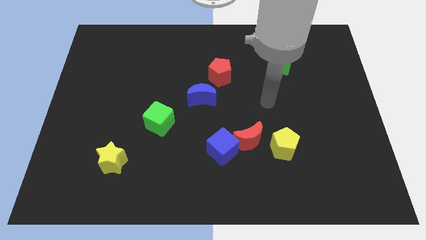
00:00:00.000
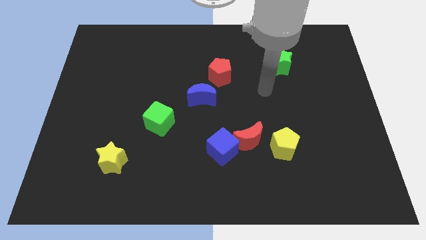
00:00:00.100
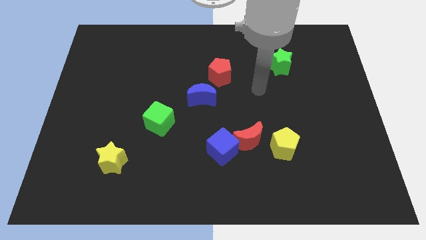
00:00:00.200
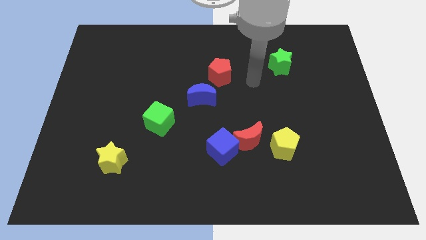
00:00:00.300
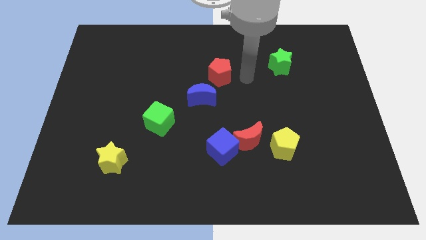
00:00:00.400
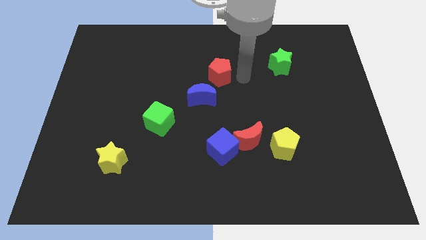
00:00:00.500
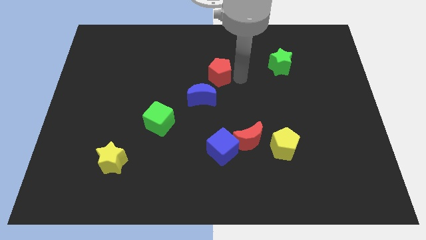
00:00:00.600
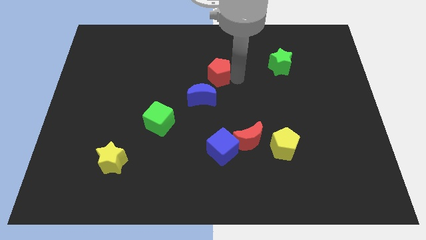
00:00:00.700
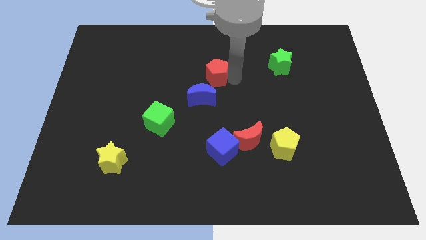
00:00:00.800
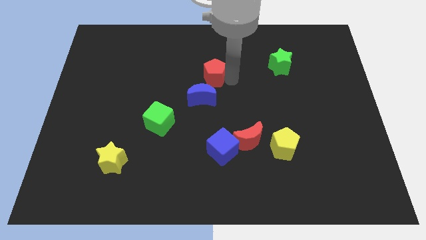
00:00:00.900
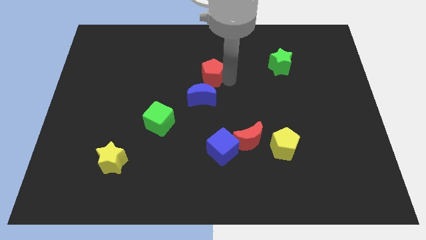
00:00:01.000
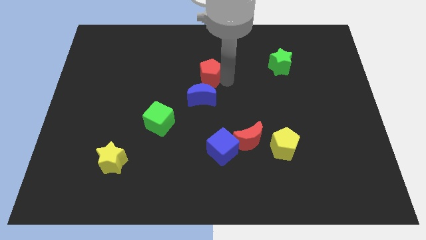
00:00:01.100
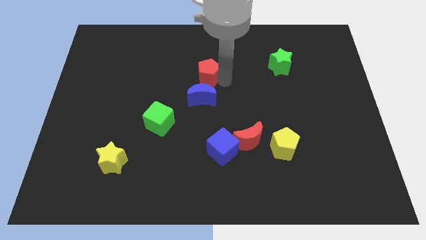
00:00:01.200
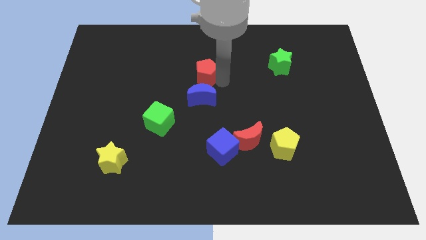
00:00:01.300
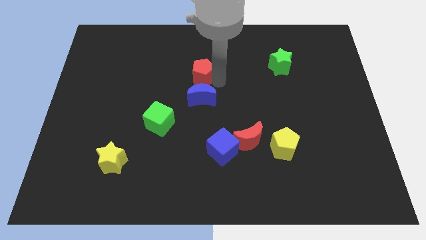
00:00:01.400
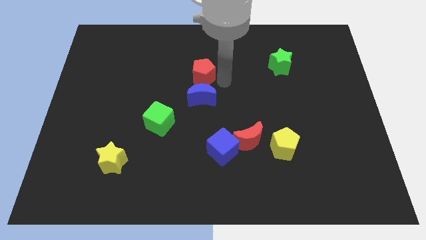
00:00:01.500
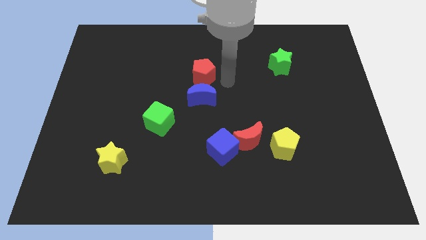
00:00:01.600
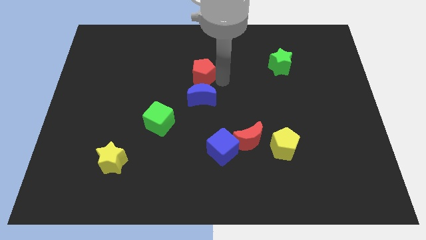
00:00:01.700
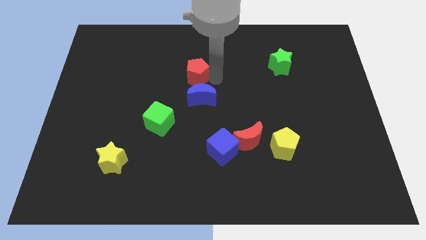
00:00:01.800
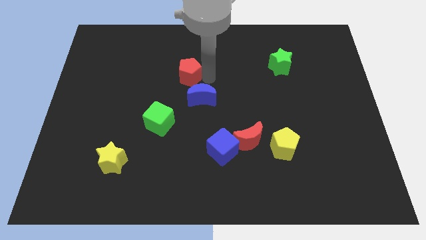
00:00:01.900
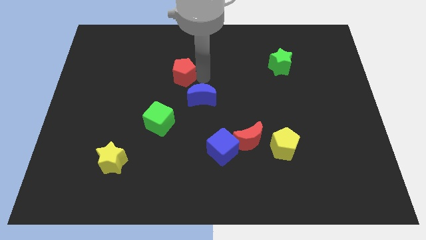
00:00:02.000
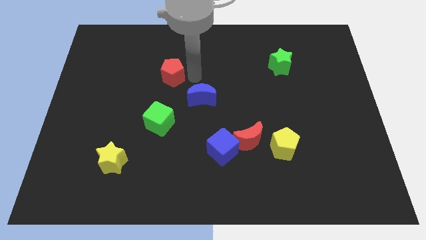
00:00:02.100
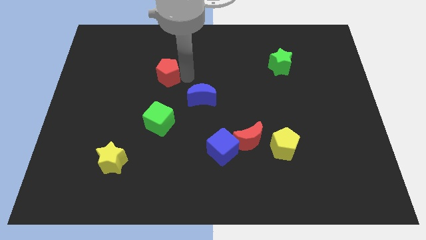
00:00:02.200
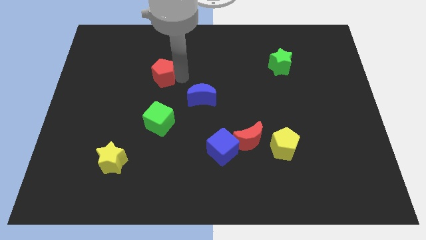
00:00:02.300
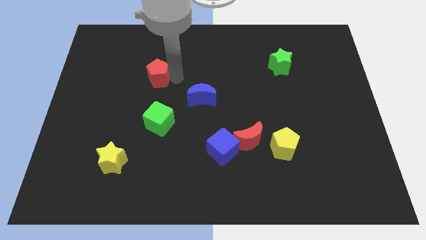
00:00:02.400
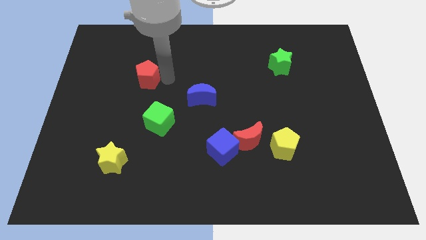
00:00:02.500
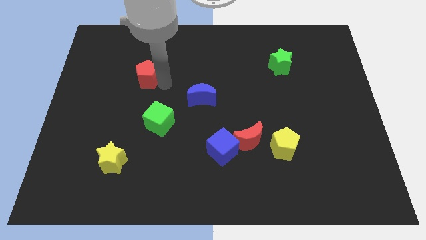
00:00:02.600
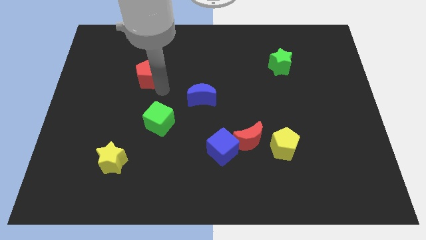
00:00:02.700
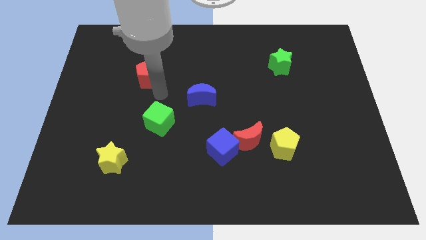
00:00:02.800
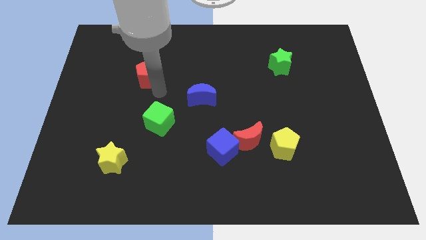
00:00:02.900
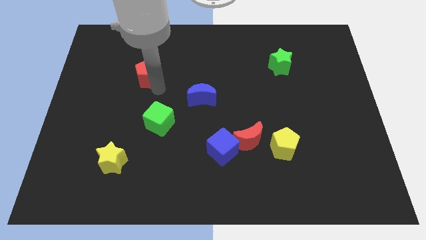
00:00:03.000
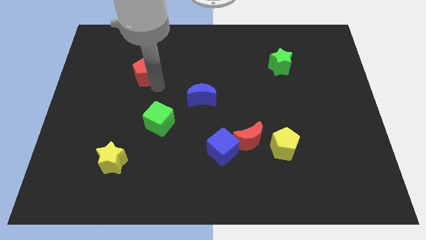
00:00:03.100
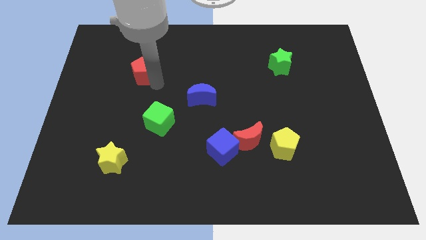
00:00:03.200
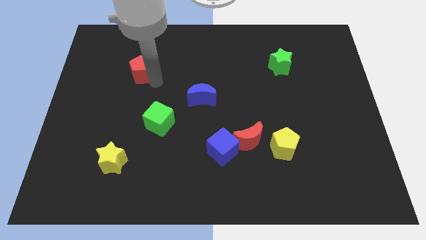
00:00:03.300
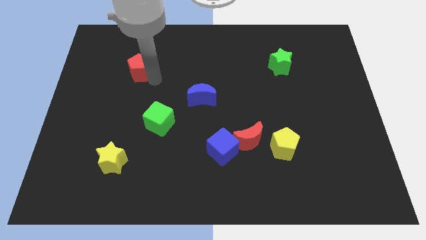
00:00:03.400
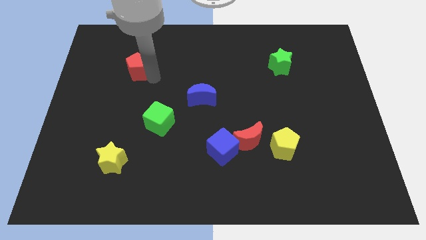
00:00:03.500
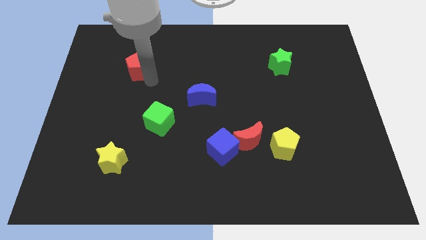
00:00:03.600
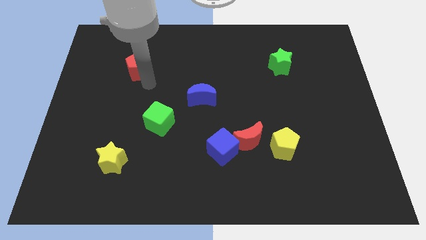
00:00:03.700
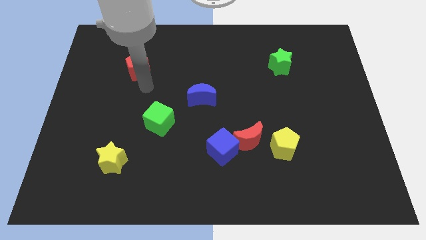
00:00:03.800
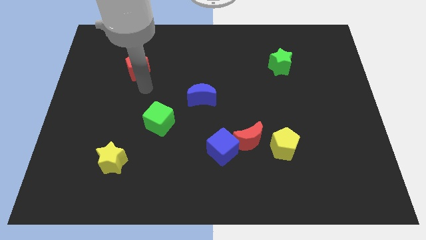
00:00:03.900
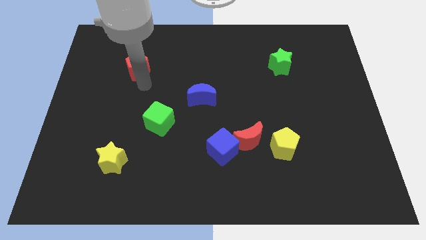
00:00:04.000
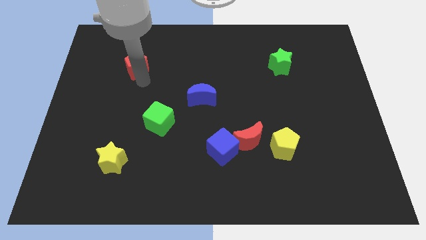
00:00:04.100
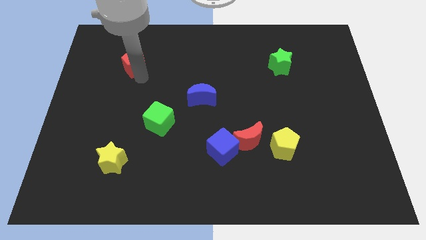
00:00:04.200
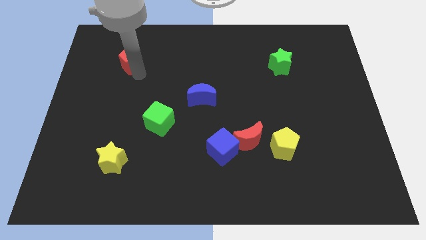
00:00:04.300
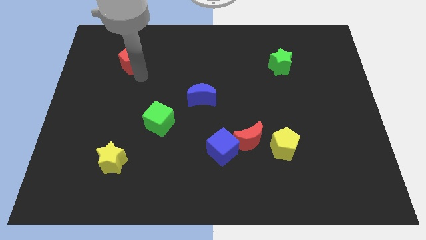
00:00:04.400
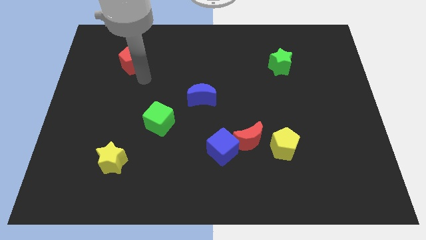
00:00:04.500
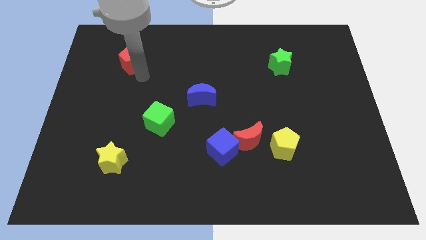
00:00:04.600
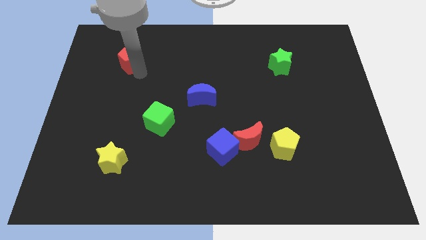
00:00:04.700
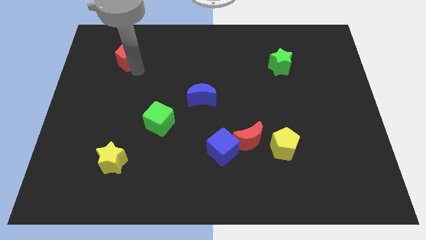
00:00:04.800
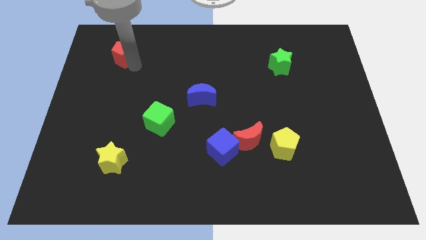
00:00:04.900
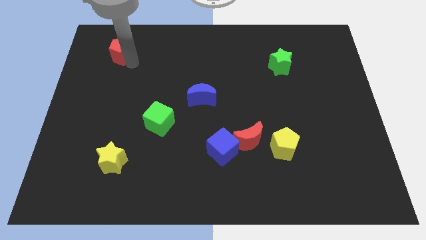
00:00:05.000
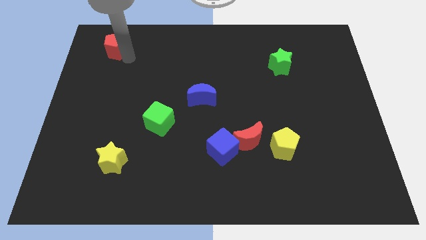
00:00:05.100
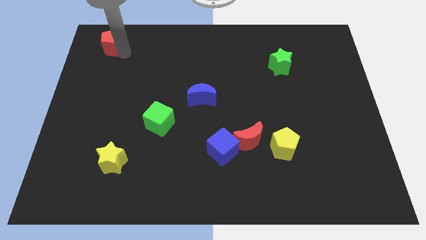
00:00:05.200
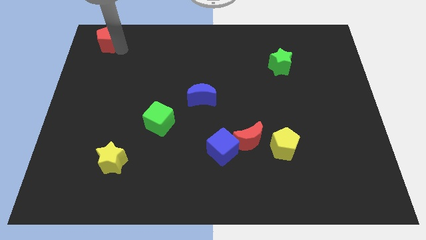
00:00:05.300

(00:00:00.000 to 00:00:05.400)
move the red pentagon to the top left corner

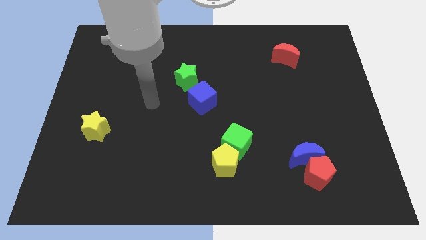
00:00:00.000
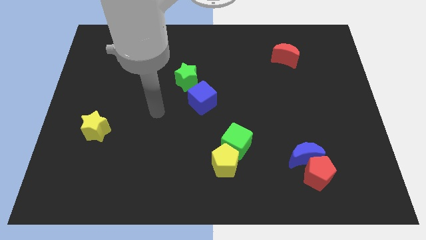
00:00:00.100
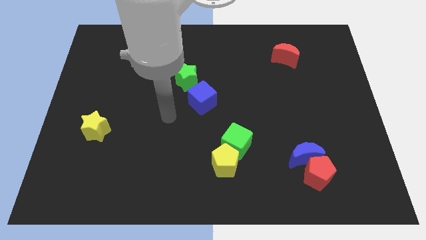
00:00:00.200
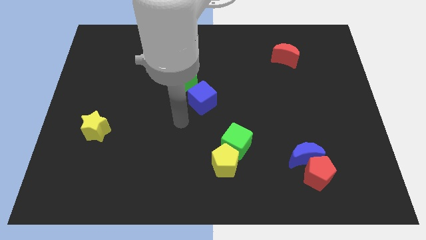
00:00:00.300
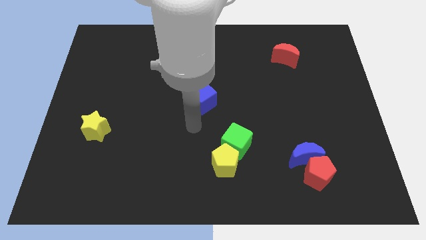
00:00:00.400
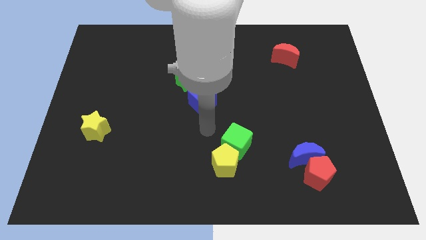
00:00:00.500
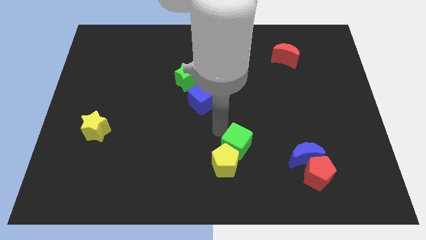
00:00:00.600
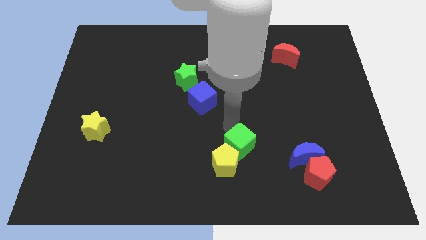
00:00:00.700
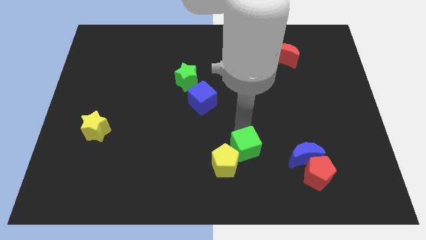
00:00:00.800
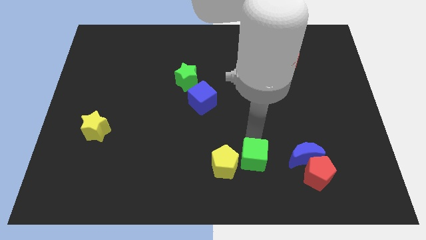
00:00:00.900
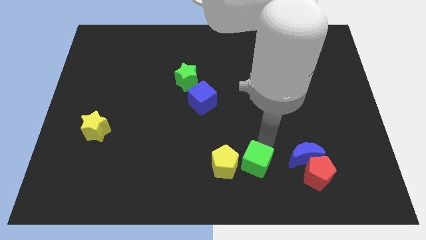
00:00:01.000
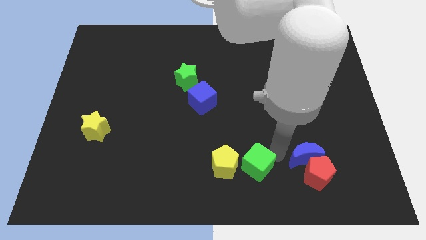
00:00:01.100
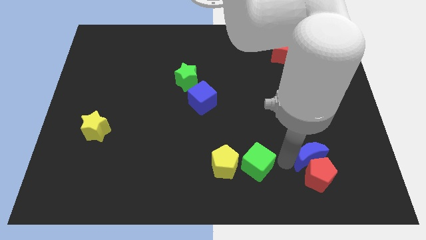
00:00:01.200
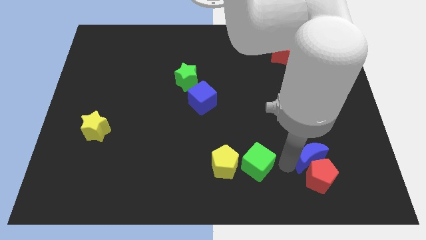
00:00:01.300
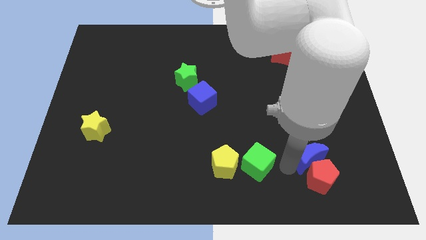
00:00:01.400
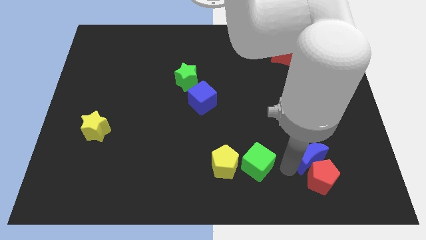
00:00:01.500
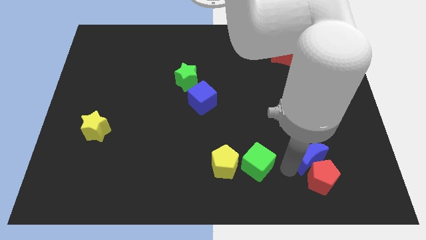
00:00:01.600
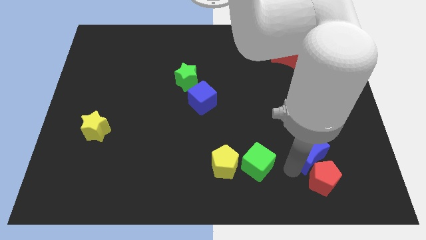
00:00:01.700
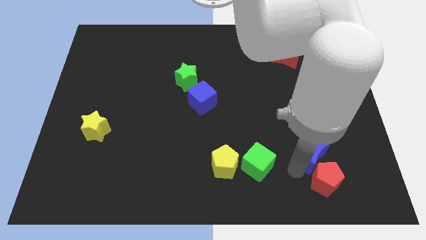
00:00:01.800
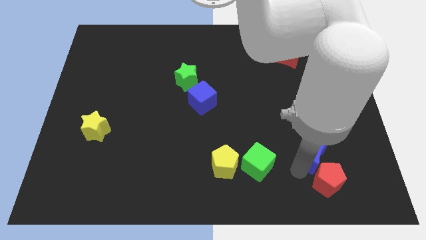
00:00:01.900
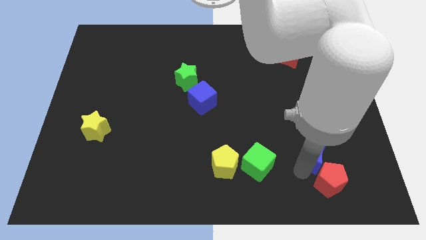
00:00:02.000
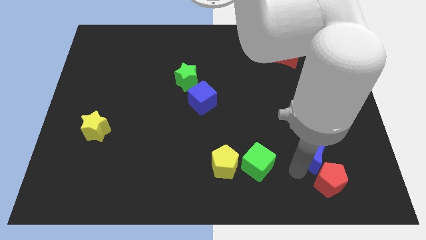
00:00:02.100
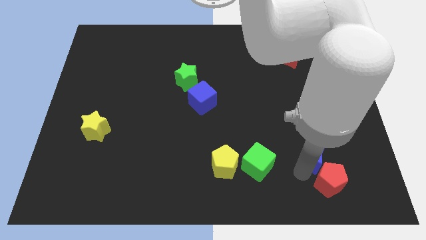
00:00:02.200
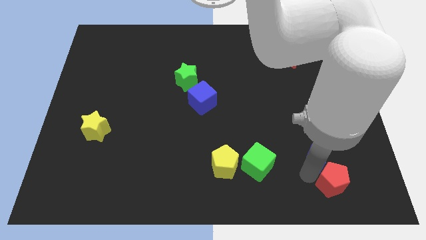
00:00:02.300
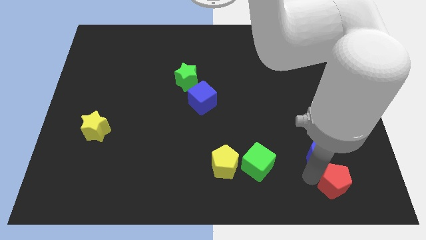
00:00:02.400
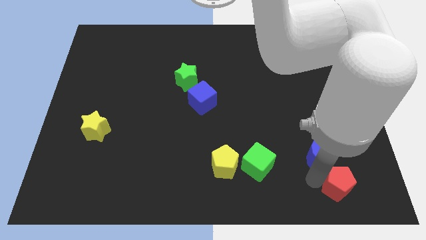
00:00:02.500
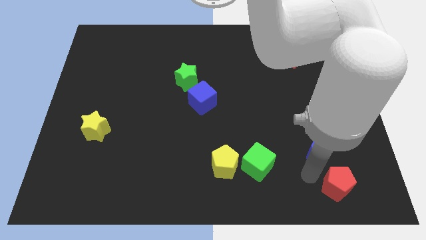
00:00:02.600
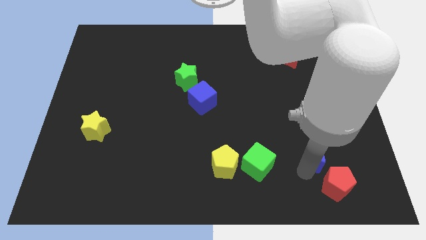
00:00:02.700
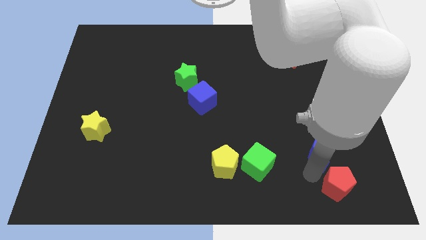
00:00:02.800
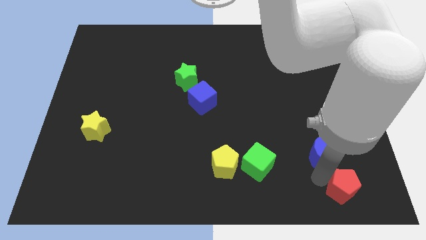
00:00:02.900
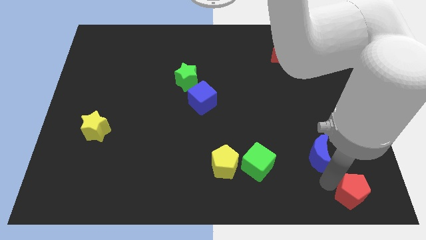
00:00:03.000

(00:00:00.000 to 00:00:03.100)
push the red pentagon to the lower right corner
